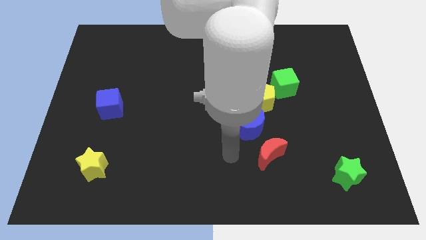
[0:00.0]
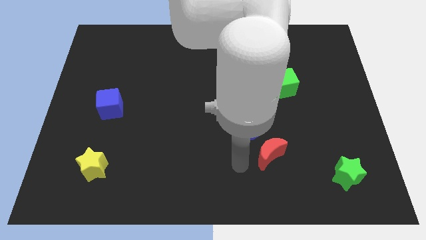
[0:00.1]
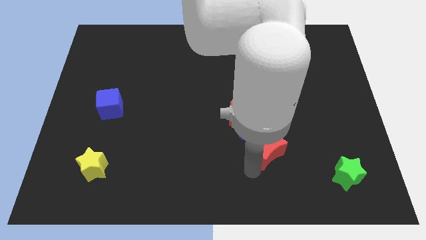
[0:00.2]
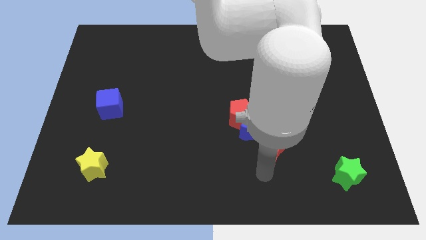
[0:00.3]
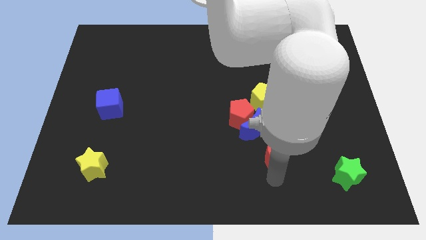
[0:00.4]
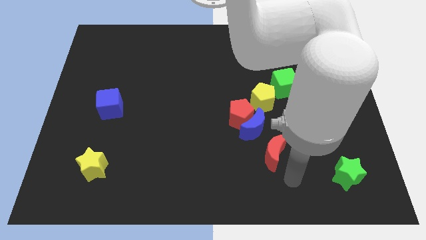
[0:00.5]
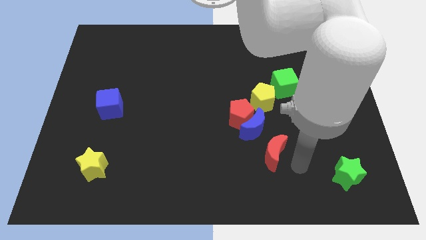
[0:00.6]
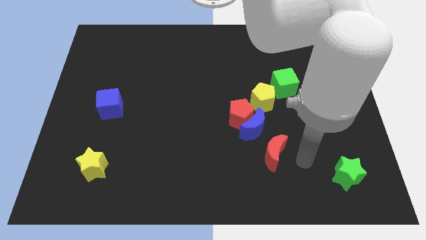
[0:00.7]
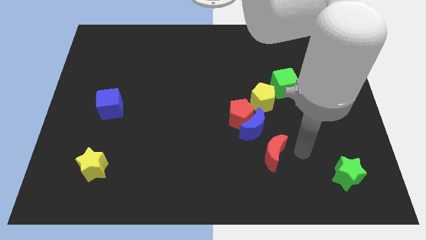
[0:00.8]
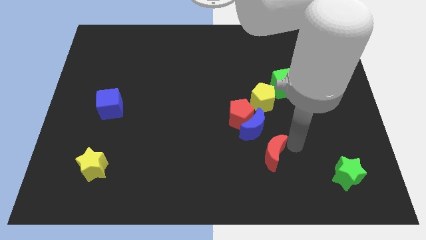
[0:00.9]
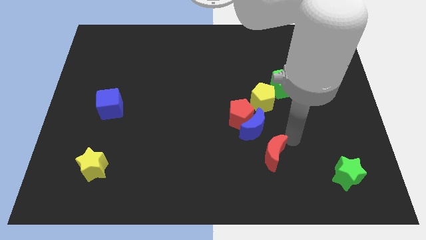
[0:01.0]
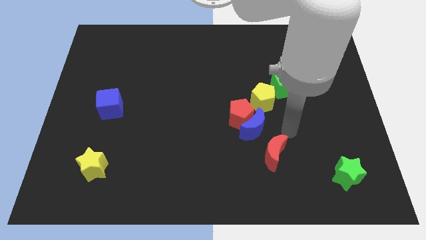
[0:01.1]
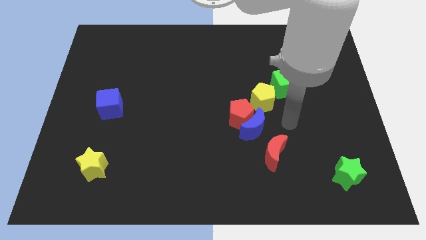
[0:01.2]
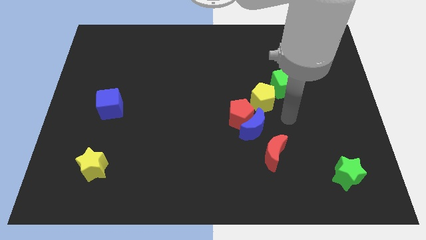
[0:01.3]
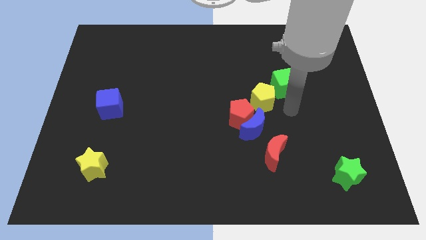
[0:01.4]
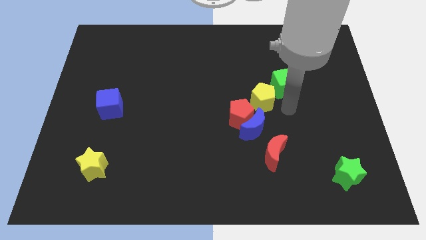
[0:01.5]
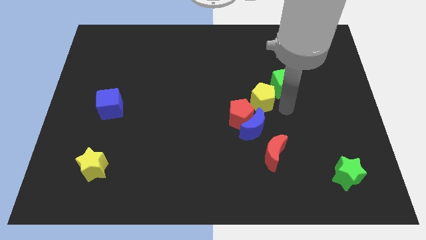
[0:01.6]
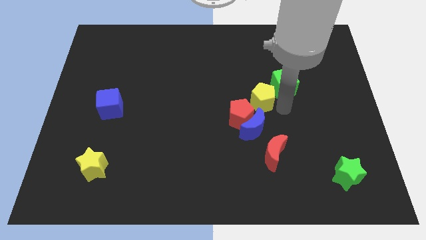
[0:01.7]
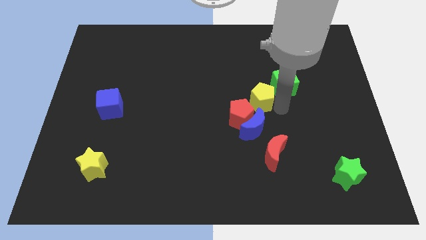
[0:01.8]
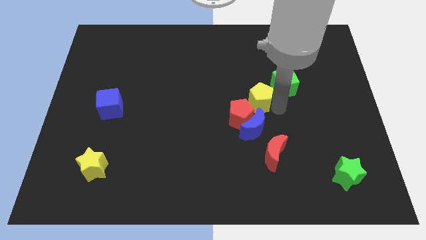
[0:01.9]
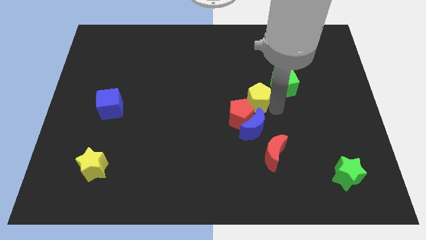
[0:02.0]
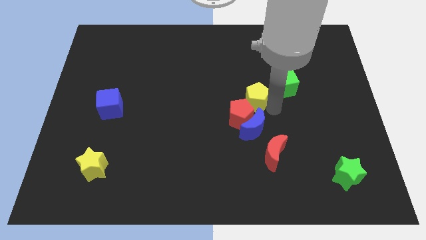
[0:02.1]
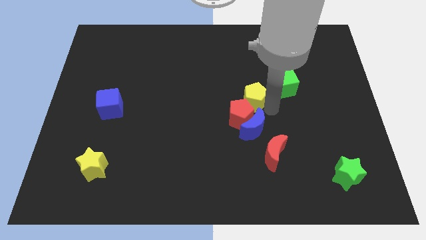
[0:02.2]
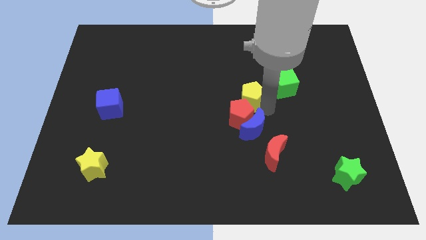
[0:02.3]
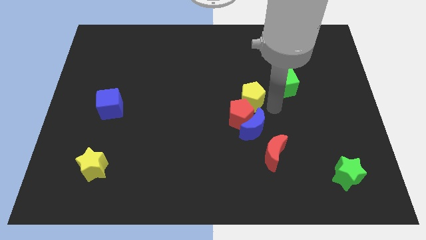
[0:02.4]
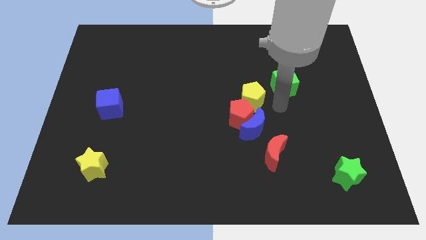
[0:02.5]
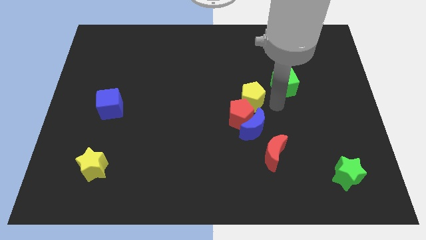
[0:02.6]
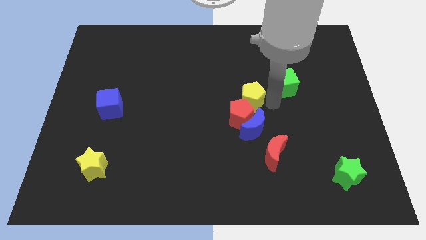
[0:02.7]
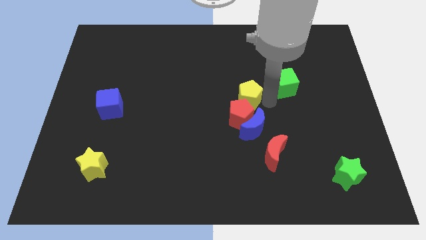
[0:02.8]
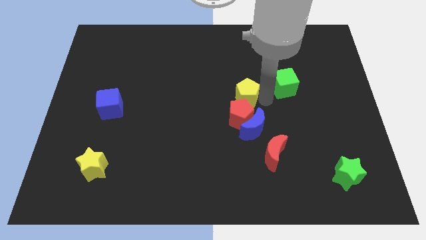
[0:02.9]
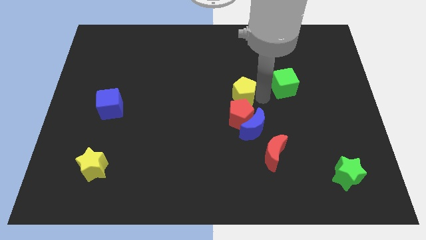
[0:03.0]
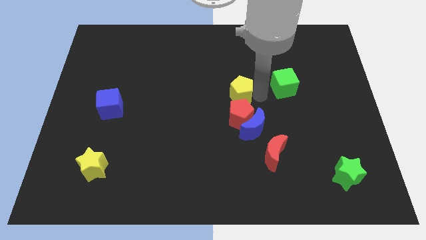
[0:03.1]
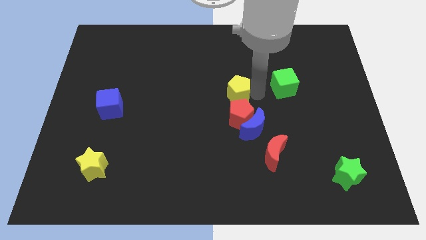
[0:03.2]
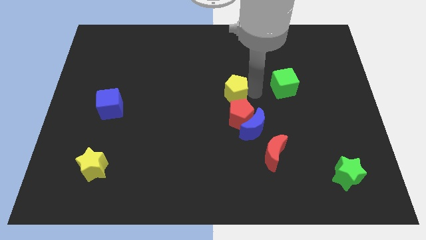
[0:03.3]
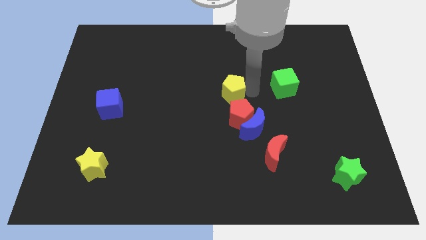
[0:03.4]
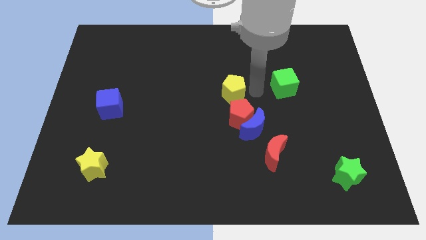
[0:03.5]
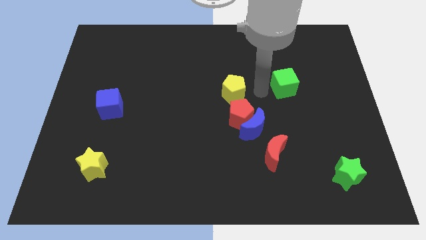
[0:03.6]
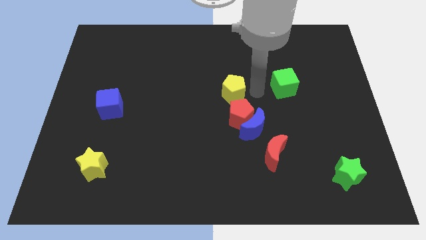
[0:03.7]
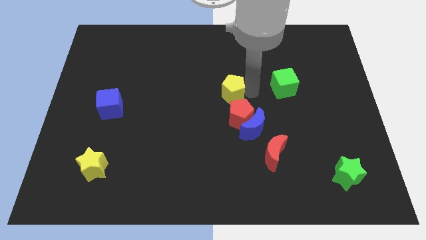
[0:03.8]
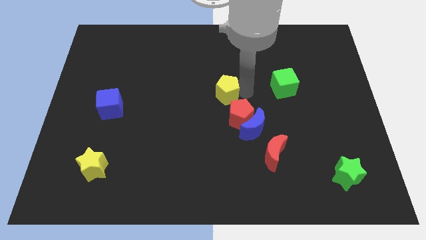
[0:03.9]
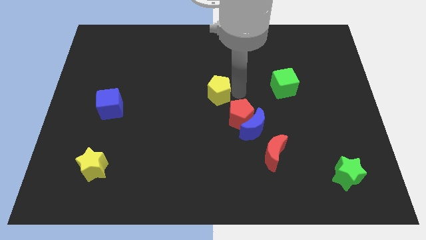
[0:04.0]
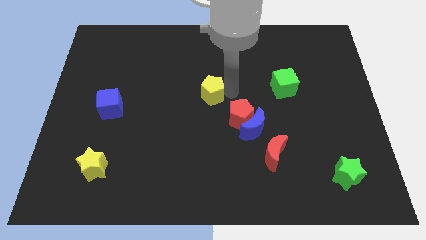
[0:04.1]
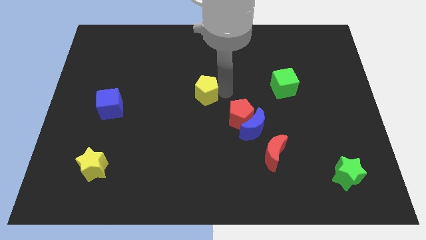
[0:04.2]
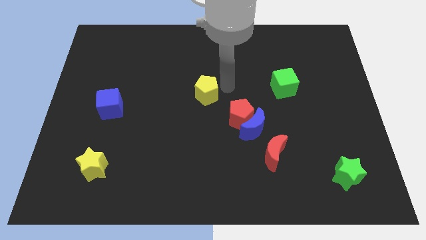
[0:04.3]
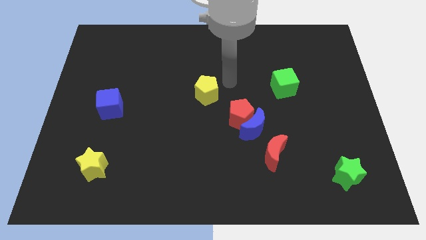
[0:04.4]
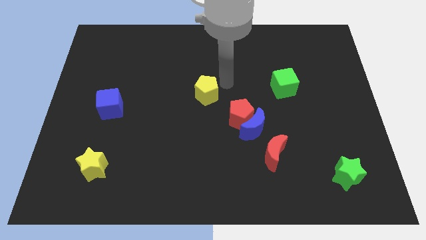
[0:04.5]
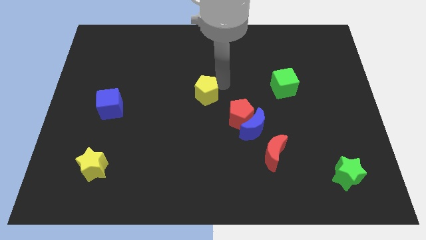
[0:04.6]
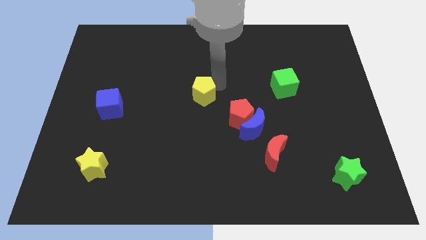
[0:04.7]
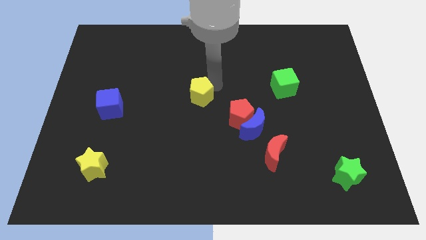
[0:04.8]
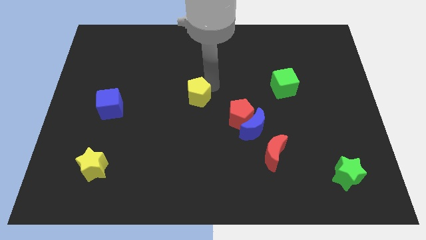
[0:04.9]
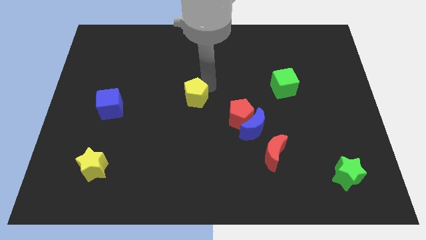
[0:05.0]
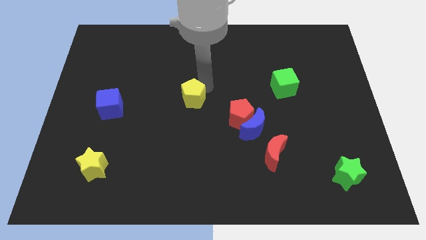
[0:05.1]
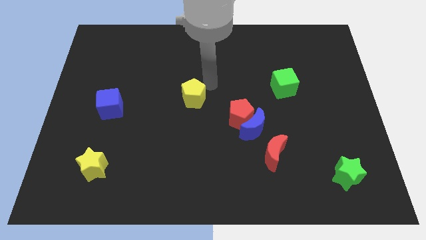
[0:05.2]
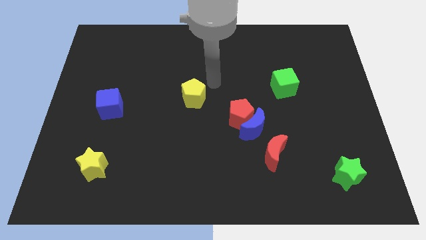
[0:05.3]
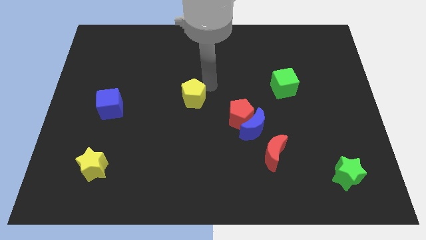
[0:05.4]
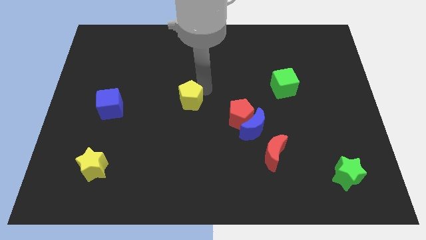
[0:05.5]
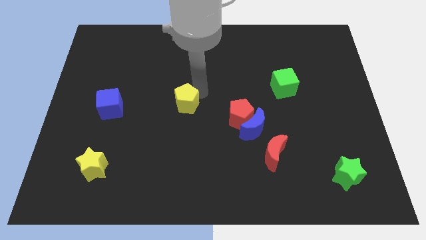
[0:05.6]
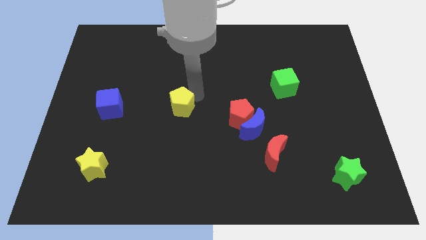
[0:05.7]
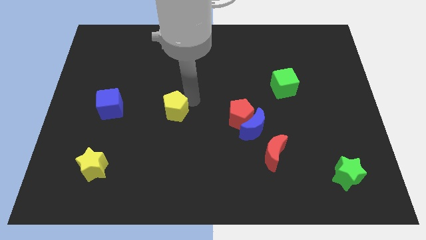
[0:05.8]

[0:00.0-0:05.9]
put the yellow pentagon to the right side of the blue cube

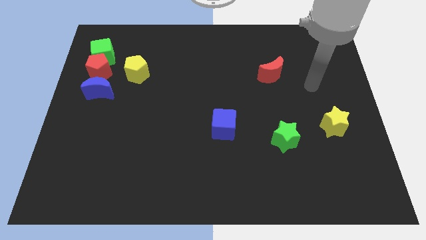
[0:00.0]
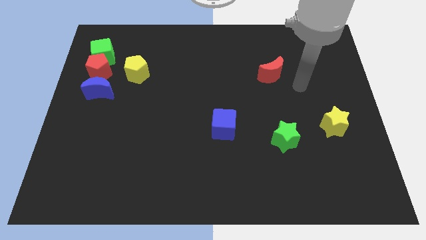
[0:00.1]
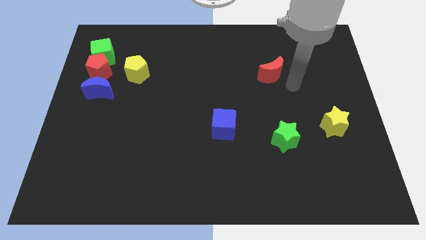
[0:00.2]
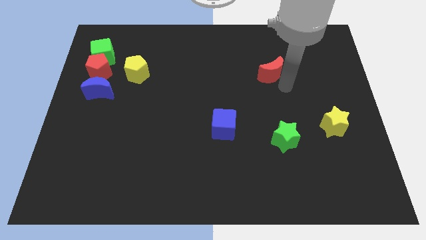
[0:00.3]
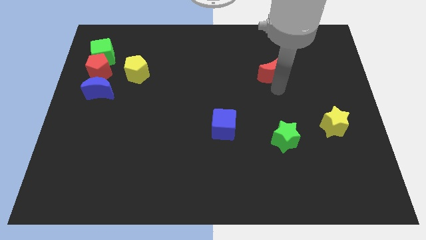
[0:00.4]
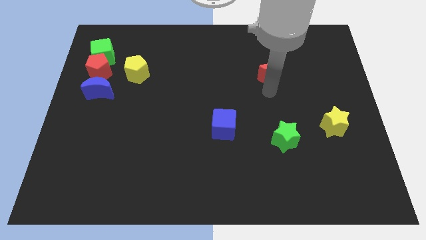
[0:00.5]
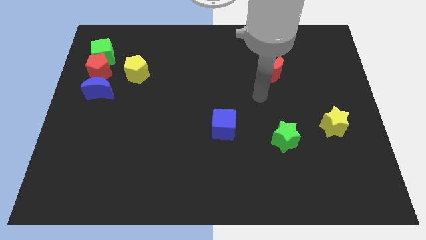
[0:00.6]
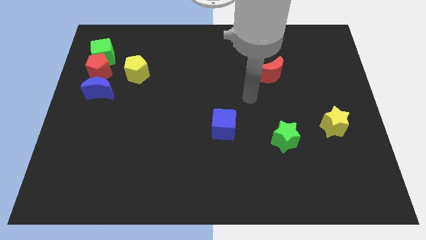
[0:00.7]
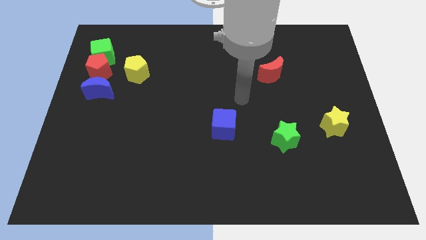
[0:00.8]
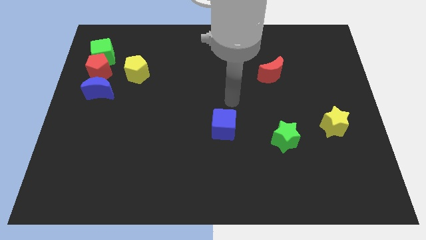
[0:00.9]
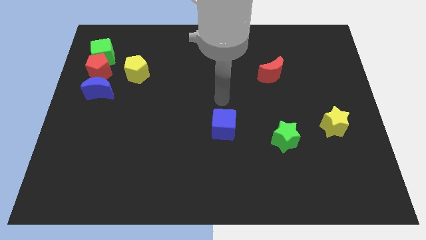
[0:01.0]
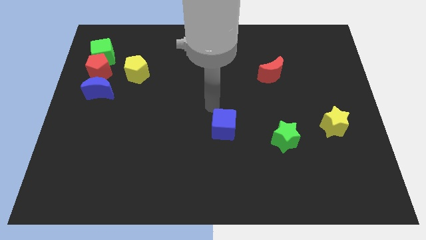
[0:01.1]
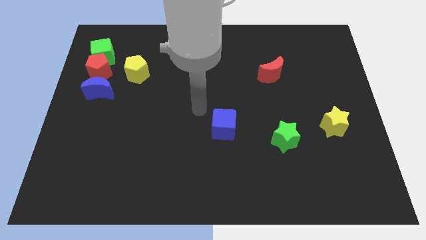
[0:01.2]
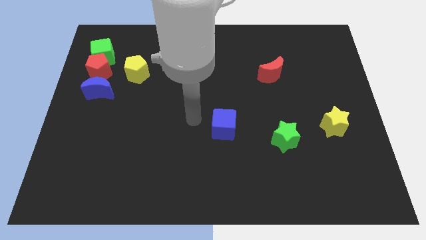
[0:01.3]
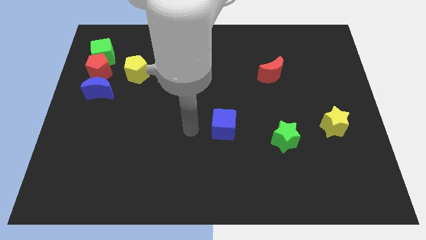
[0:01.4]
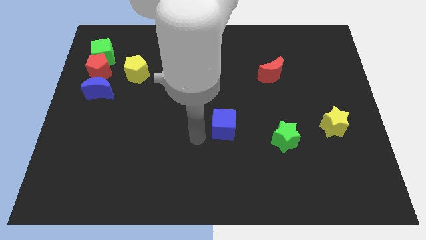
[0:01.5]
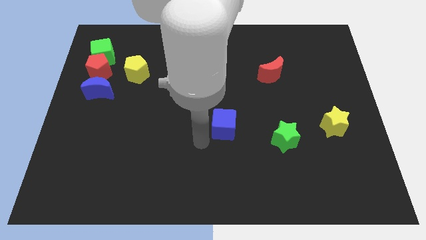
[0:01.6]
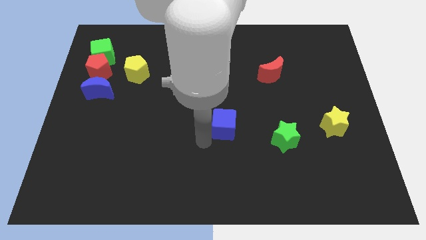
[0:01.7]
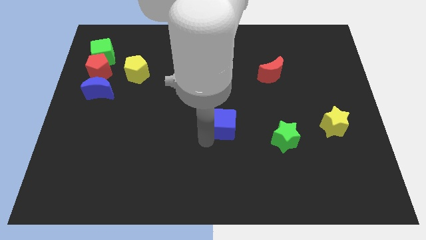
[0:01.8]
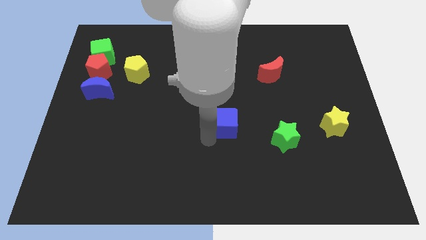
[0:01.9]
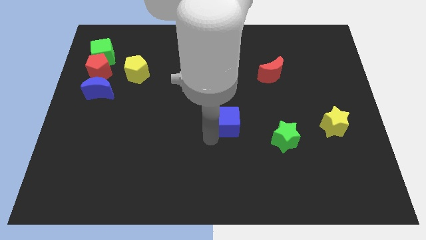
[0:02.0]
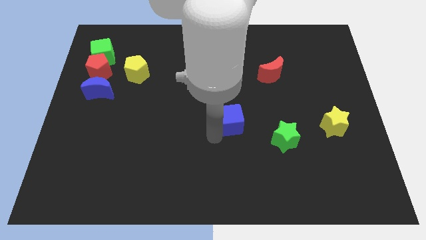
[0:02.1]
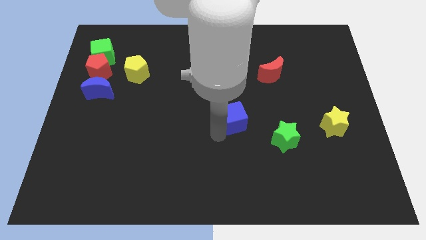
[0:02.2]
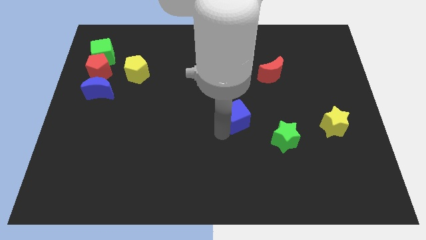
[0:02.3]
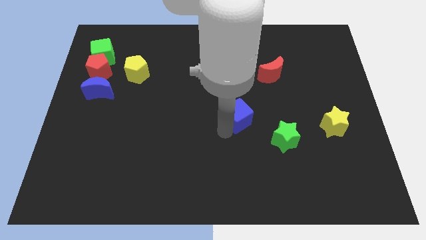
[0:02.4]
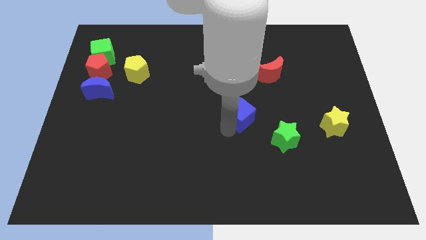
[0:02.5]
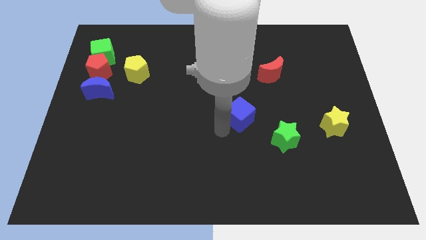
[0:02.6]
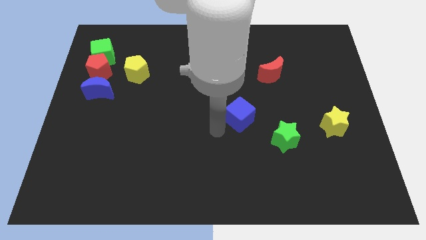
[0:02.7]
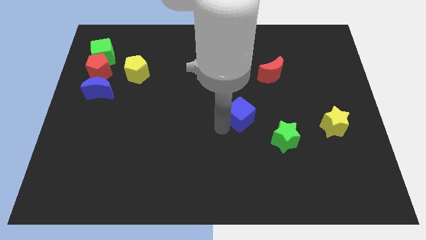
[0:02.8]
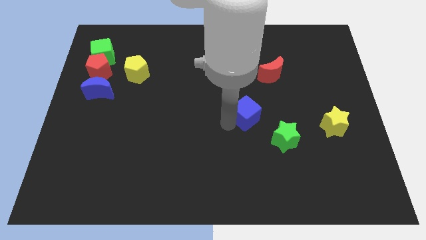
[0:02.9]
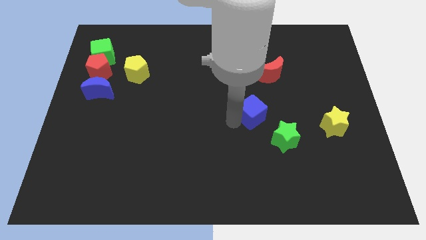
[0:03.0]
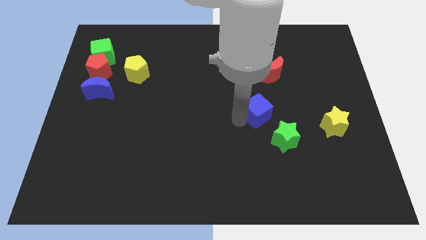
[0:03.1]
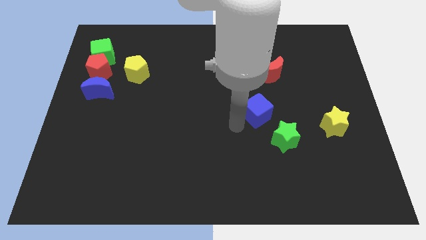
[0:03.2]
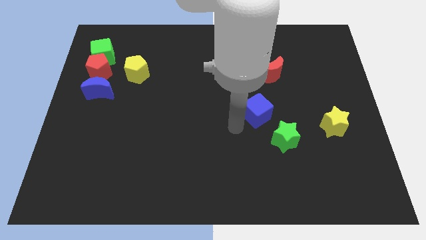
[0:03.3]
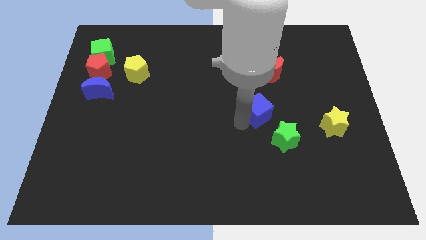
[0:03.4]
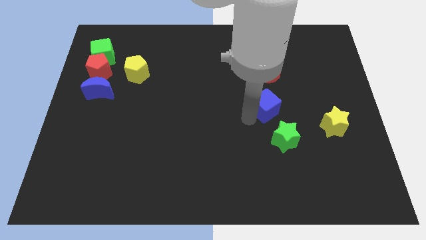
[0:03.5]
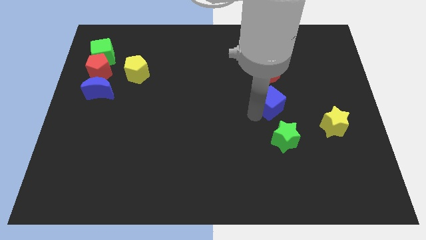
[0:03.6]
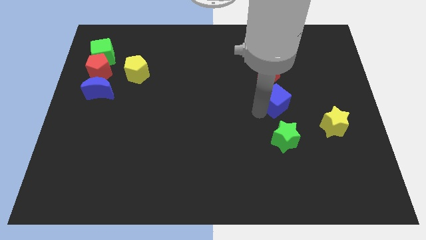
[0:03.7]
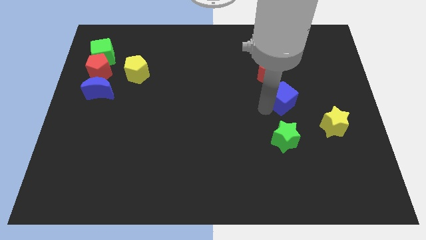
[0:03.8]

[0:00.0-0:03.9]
move the blue cube diagonally down and to the right of the red moon
